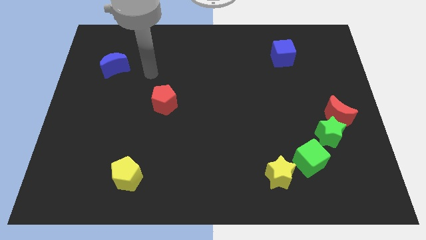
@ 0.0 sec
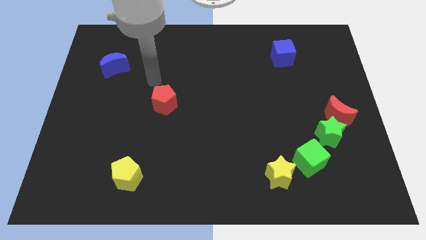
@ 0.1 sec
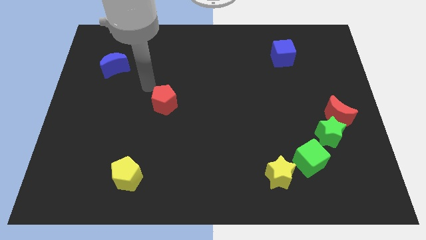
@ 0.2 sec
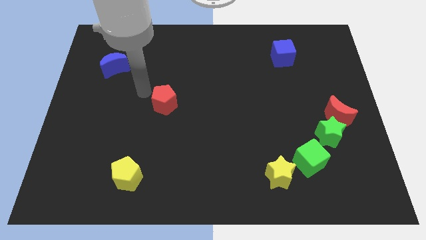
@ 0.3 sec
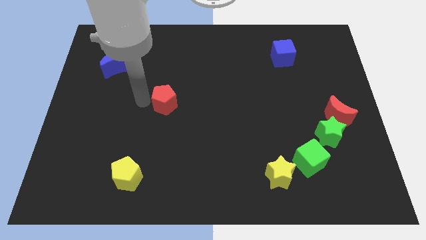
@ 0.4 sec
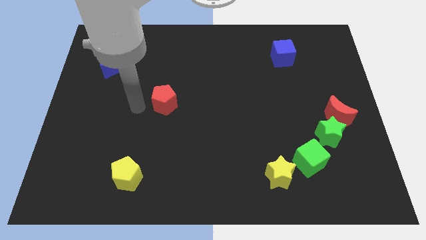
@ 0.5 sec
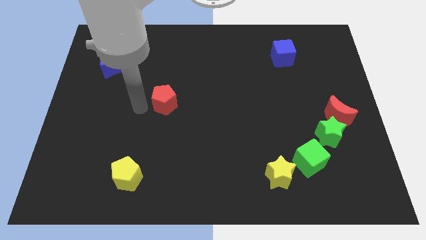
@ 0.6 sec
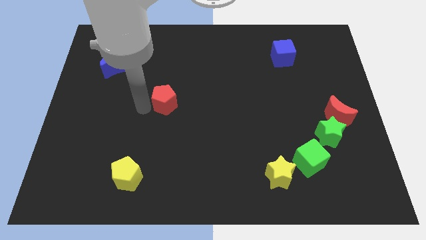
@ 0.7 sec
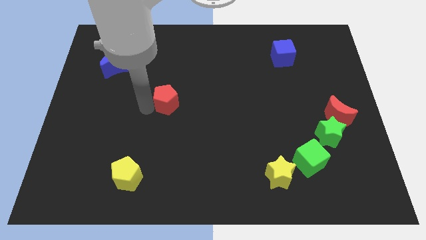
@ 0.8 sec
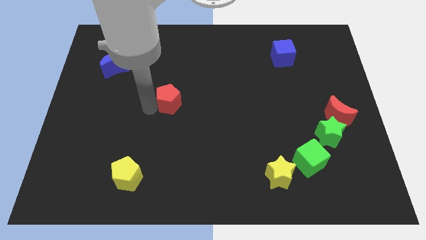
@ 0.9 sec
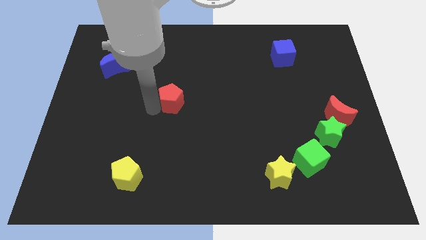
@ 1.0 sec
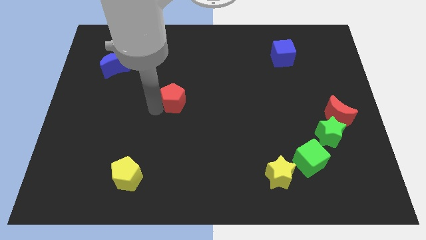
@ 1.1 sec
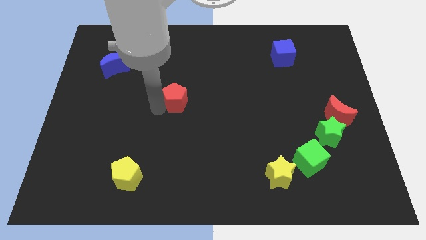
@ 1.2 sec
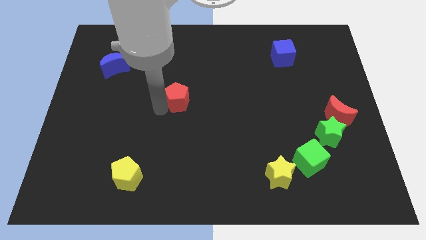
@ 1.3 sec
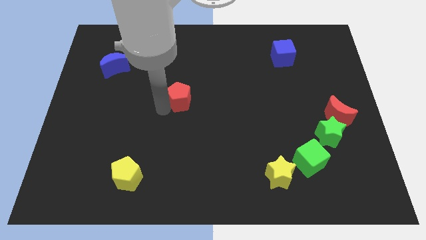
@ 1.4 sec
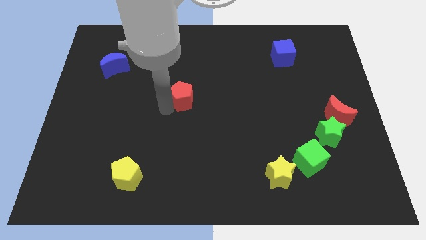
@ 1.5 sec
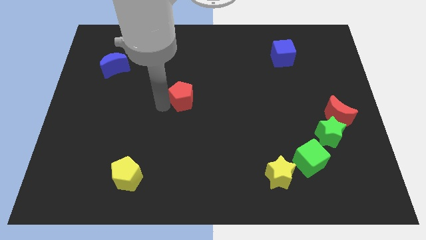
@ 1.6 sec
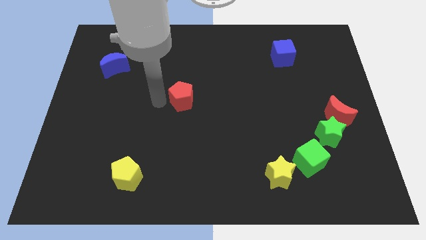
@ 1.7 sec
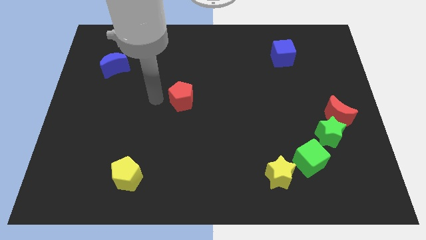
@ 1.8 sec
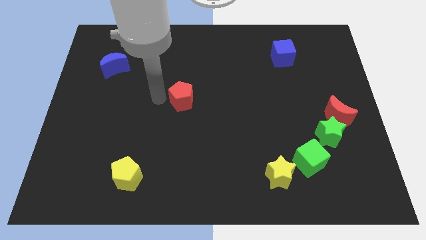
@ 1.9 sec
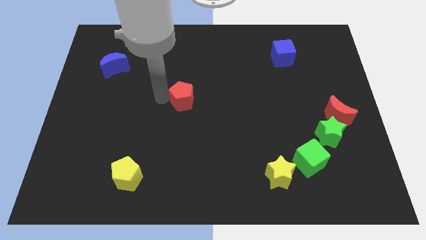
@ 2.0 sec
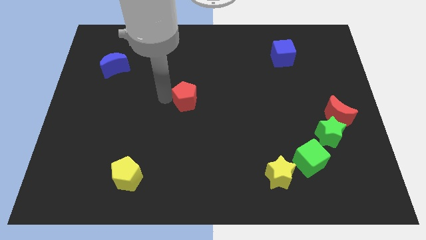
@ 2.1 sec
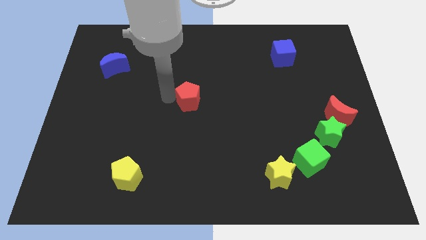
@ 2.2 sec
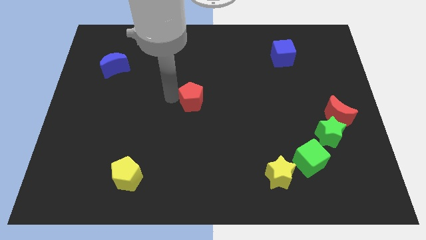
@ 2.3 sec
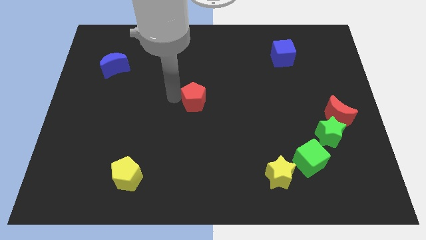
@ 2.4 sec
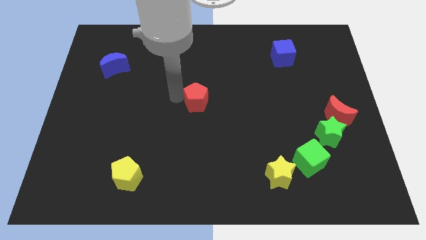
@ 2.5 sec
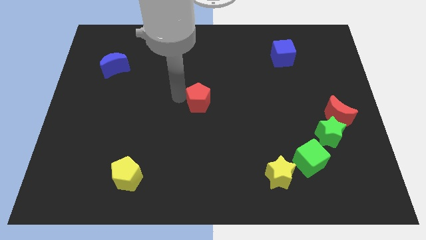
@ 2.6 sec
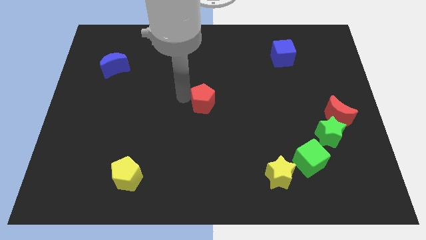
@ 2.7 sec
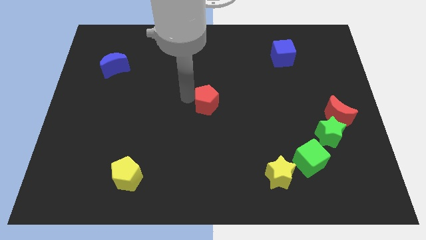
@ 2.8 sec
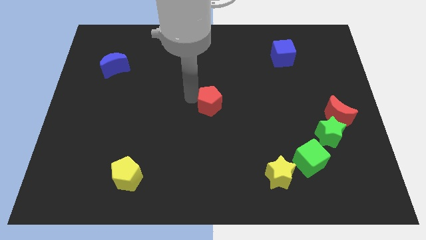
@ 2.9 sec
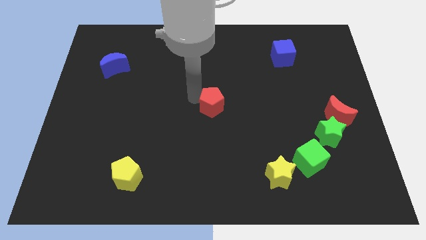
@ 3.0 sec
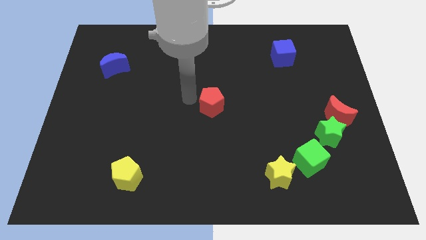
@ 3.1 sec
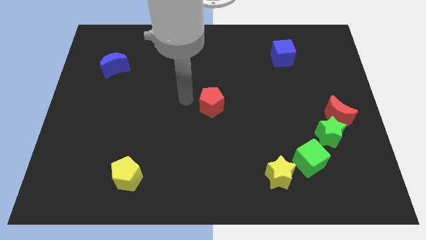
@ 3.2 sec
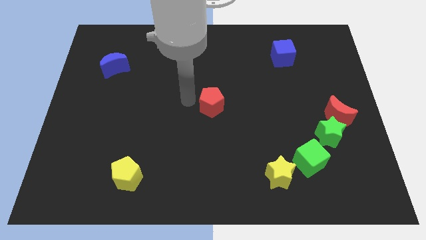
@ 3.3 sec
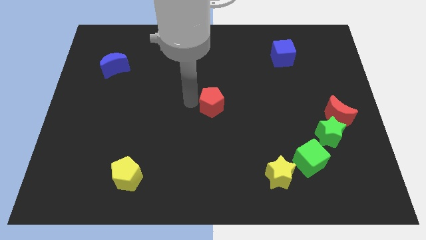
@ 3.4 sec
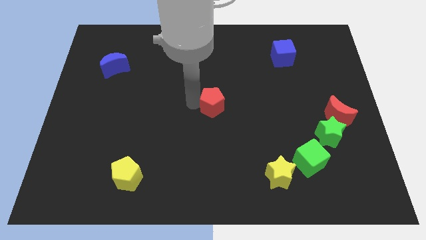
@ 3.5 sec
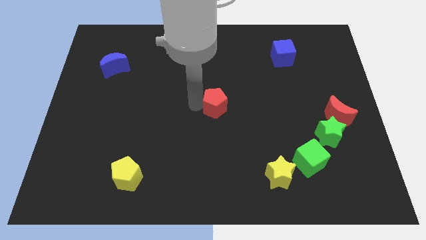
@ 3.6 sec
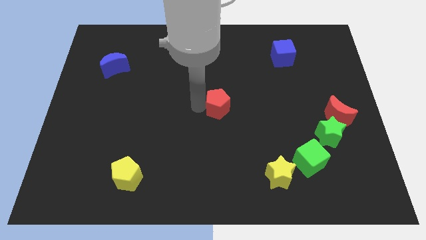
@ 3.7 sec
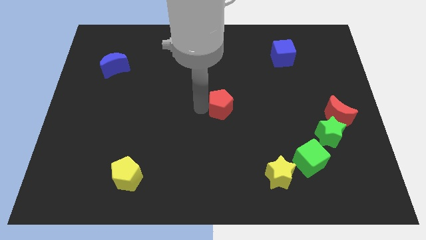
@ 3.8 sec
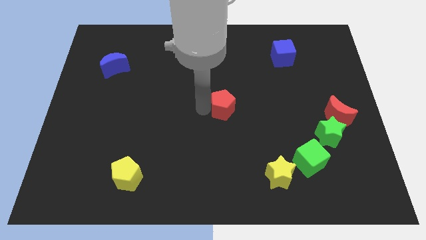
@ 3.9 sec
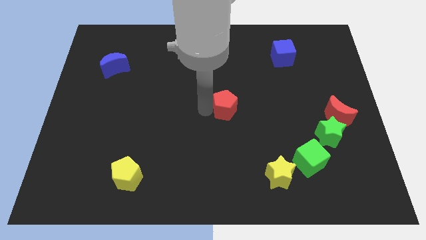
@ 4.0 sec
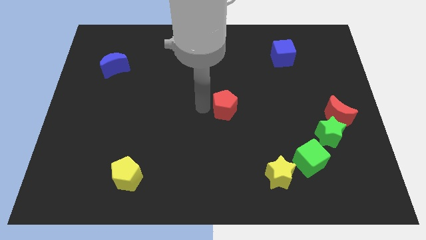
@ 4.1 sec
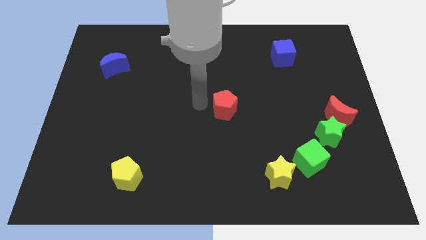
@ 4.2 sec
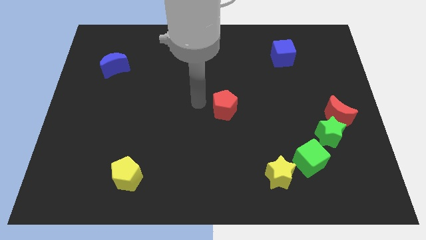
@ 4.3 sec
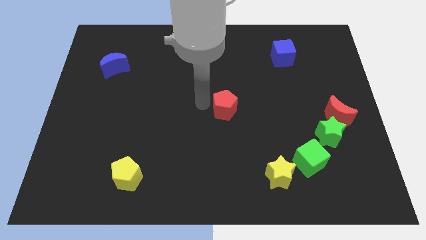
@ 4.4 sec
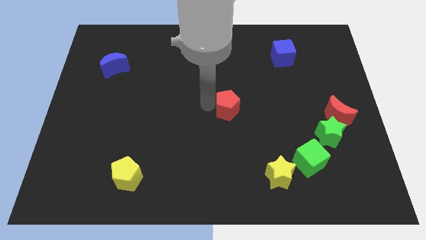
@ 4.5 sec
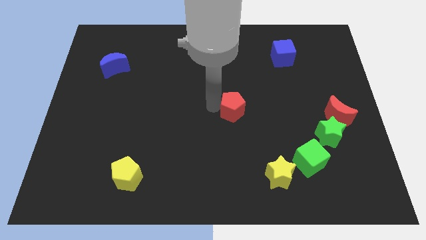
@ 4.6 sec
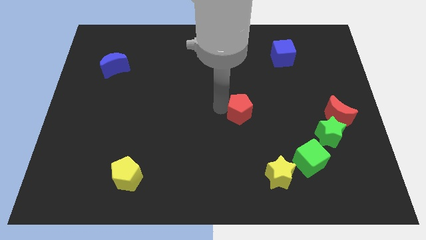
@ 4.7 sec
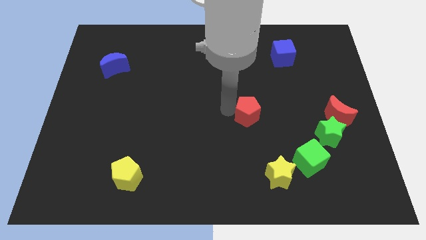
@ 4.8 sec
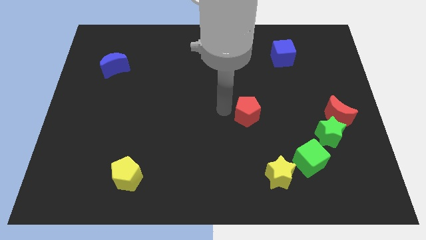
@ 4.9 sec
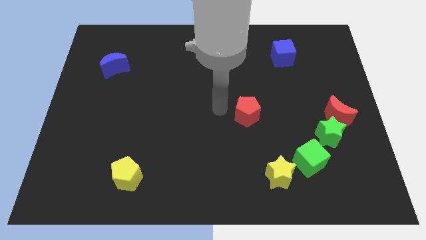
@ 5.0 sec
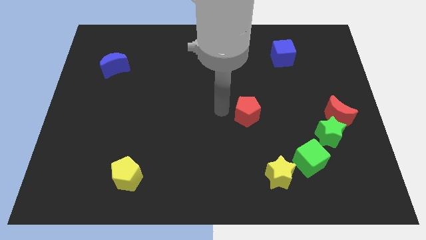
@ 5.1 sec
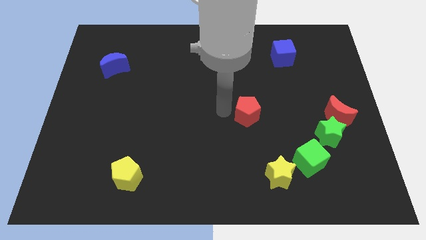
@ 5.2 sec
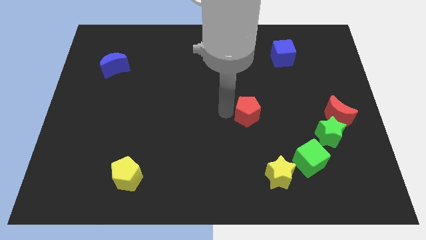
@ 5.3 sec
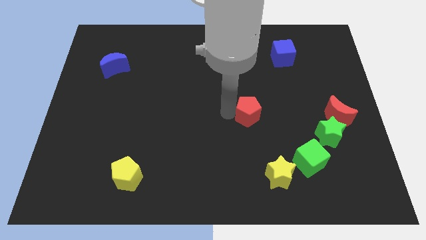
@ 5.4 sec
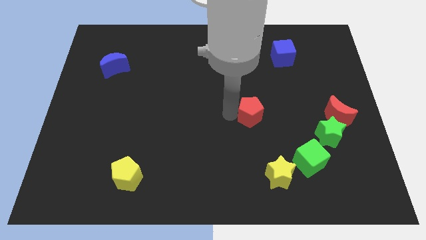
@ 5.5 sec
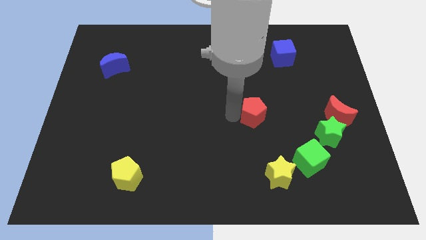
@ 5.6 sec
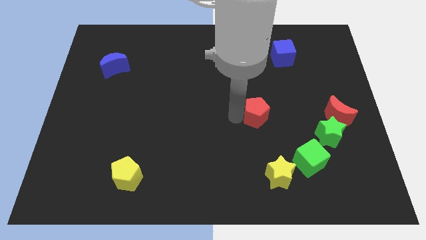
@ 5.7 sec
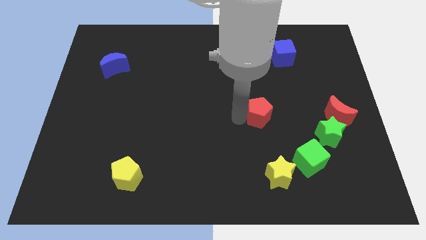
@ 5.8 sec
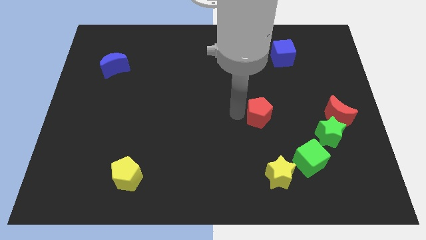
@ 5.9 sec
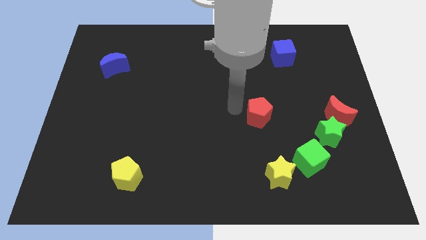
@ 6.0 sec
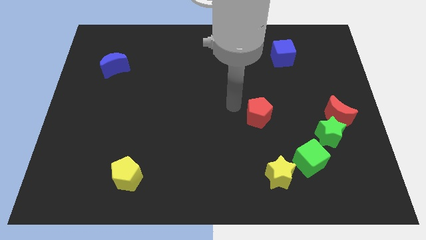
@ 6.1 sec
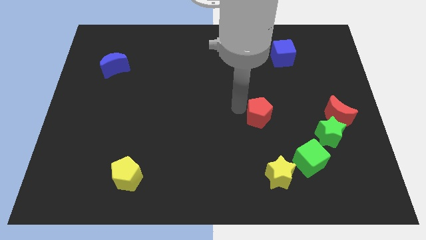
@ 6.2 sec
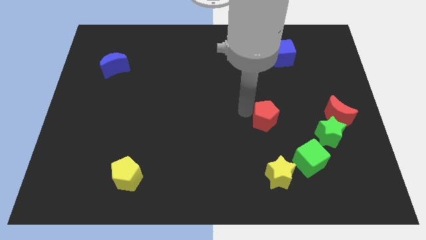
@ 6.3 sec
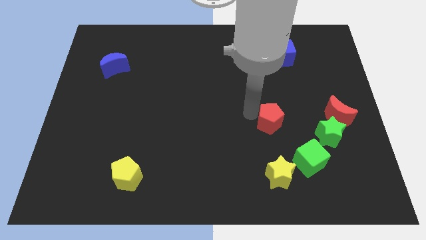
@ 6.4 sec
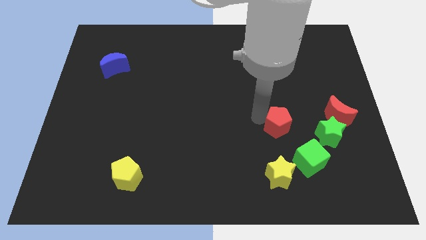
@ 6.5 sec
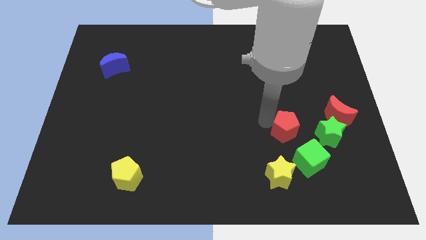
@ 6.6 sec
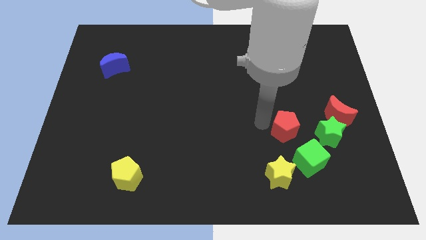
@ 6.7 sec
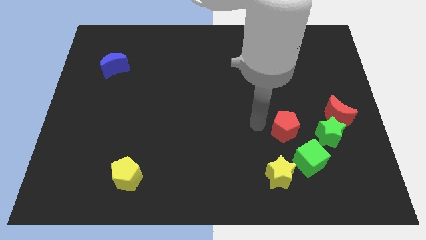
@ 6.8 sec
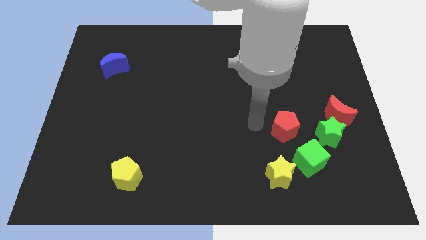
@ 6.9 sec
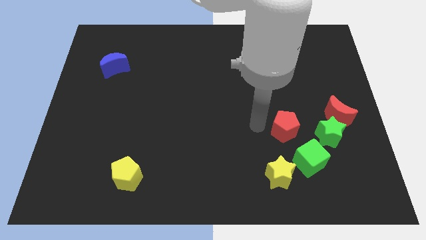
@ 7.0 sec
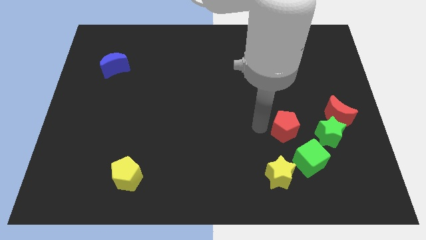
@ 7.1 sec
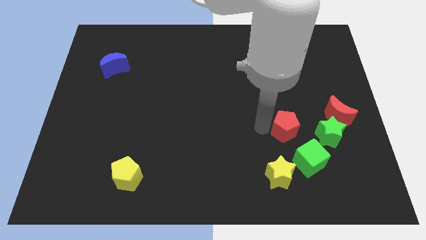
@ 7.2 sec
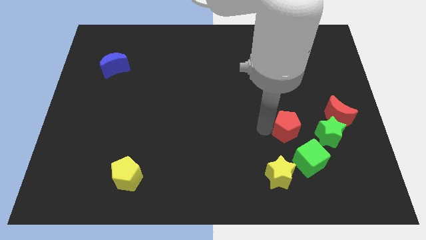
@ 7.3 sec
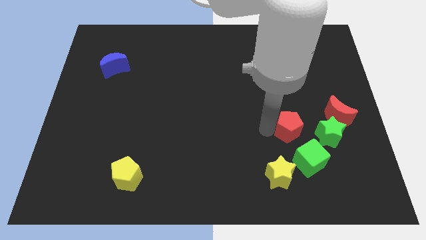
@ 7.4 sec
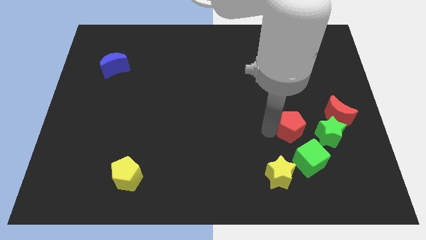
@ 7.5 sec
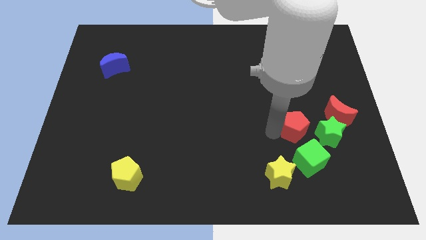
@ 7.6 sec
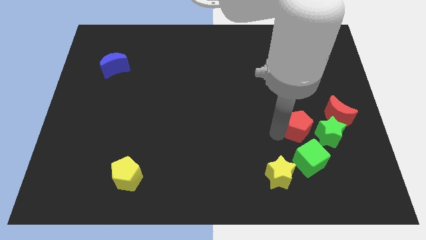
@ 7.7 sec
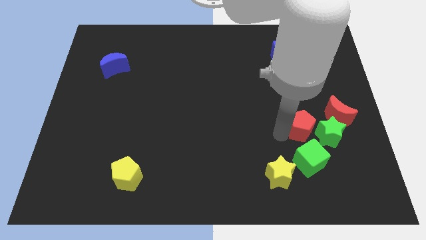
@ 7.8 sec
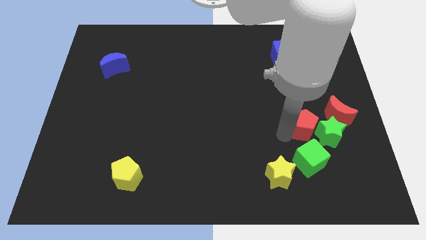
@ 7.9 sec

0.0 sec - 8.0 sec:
put the red pentagon towards the green star
